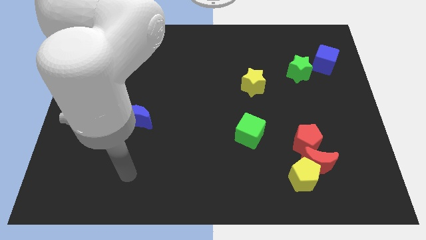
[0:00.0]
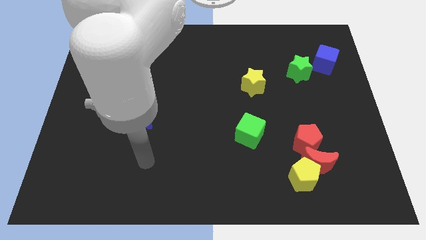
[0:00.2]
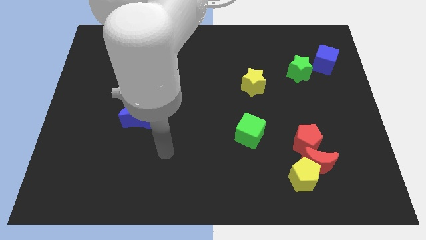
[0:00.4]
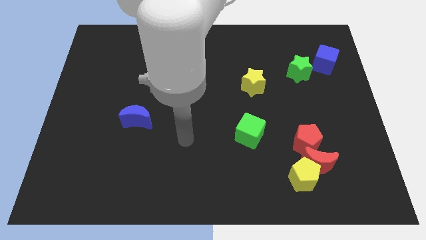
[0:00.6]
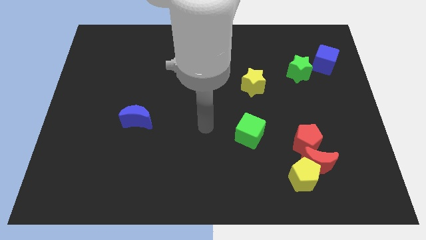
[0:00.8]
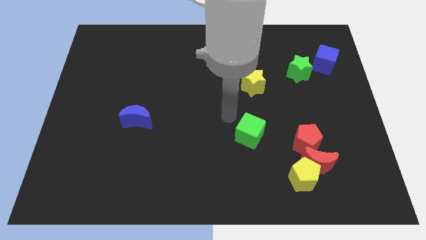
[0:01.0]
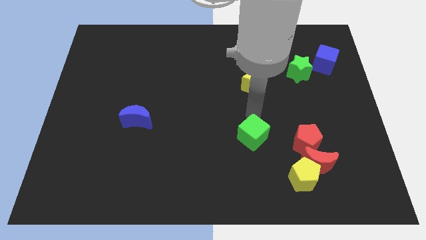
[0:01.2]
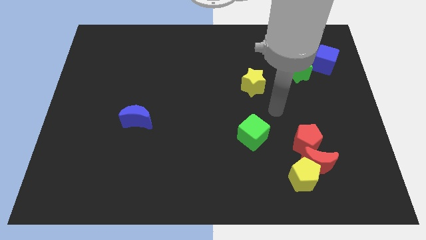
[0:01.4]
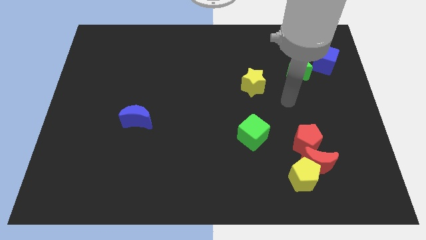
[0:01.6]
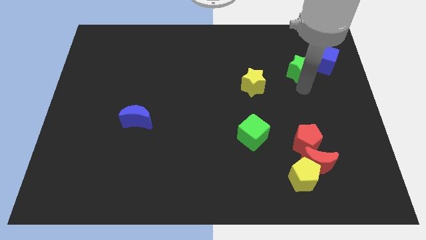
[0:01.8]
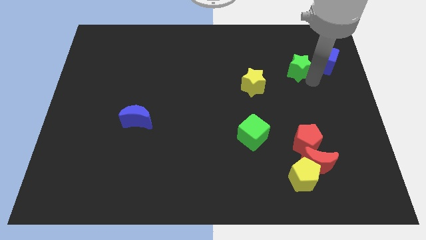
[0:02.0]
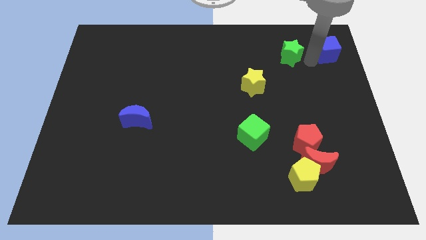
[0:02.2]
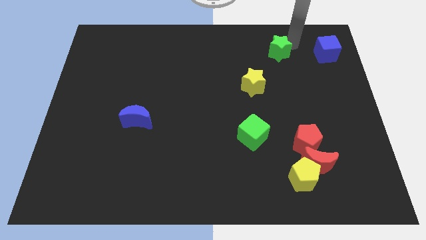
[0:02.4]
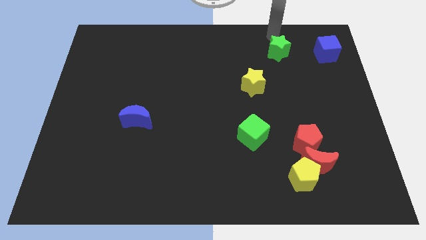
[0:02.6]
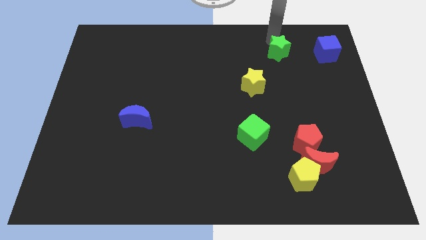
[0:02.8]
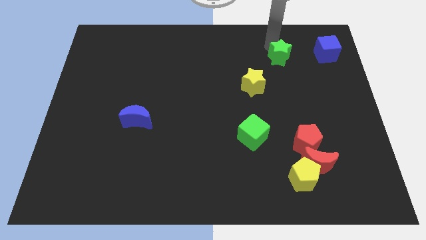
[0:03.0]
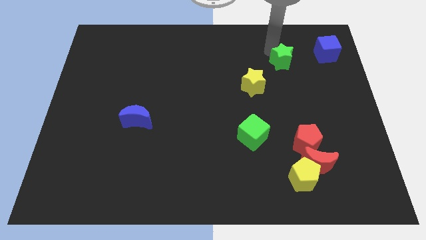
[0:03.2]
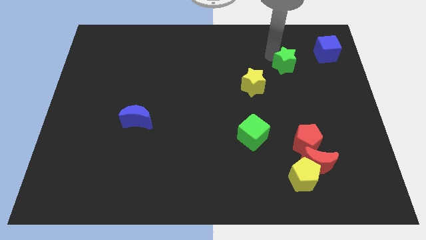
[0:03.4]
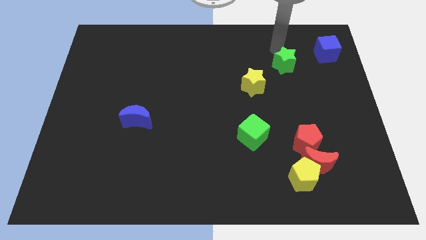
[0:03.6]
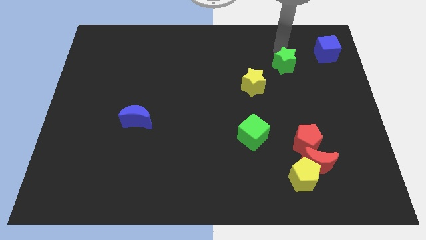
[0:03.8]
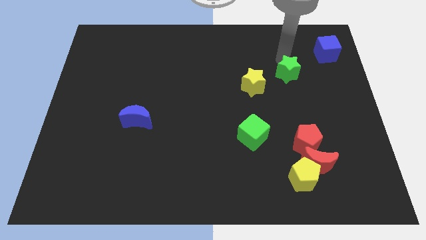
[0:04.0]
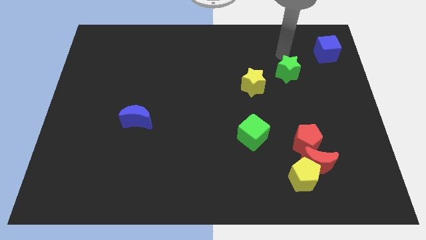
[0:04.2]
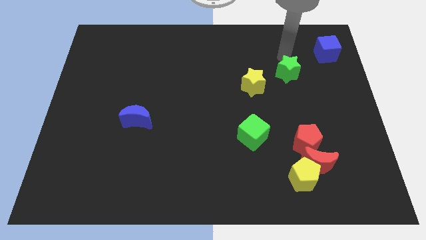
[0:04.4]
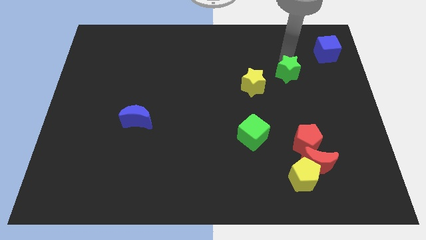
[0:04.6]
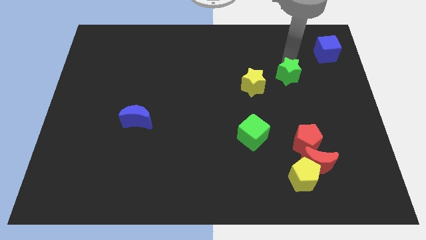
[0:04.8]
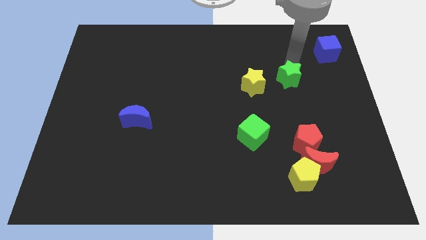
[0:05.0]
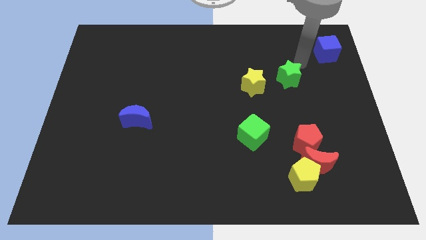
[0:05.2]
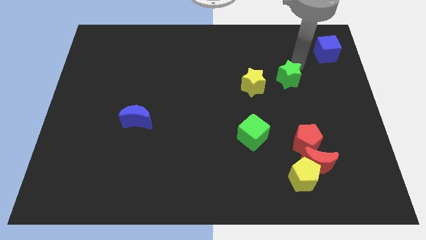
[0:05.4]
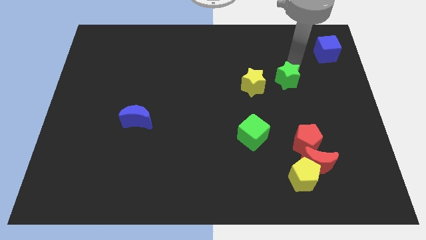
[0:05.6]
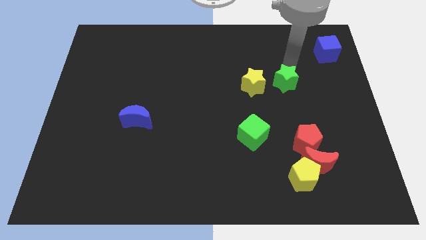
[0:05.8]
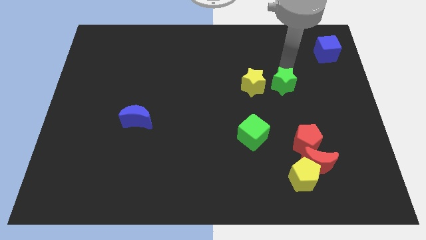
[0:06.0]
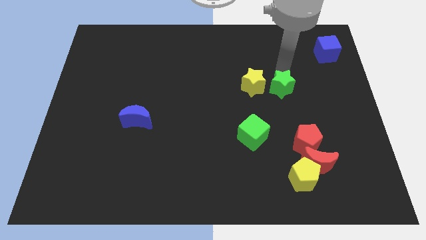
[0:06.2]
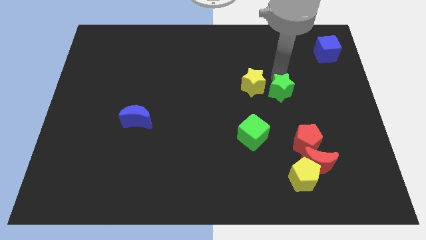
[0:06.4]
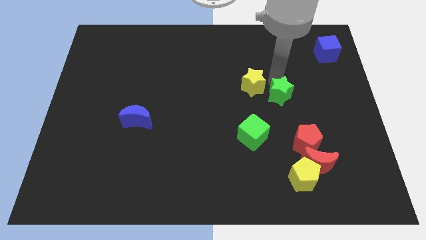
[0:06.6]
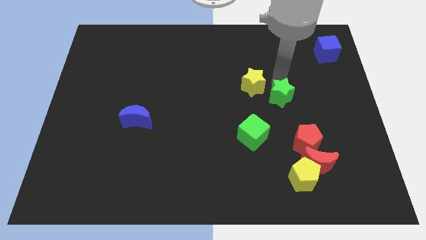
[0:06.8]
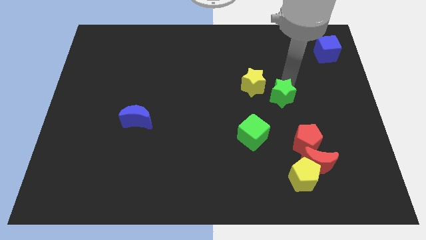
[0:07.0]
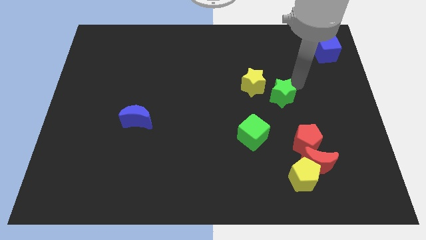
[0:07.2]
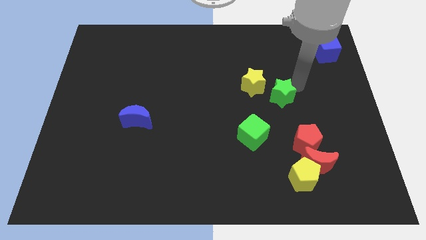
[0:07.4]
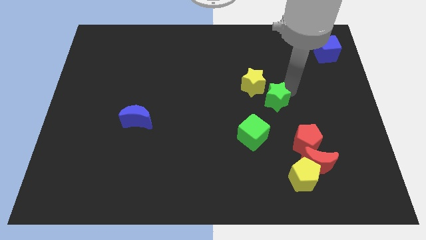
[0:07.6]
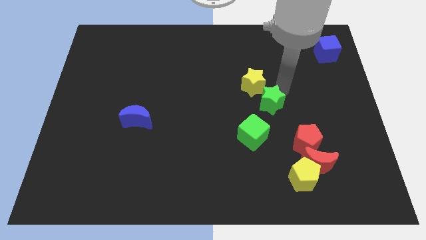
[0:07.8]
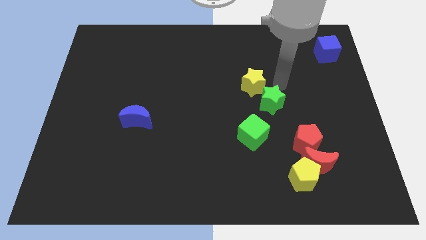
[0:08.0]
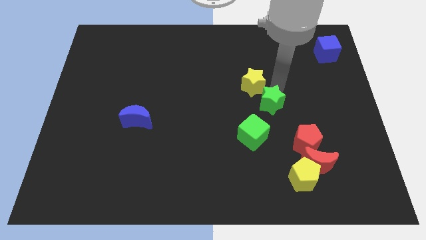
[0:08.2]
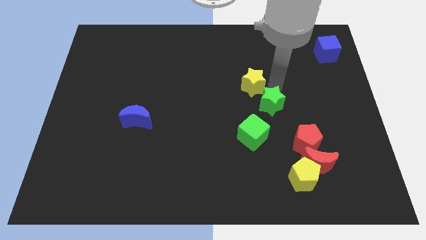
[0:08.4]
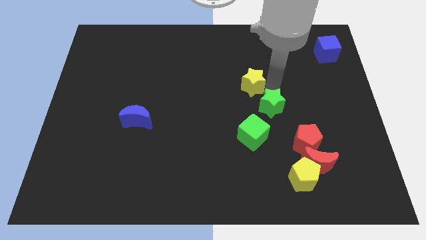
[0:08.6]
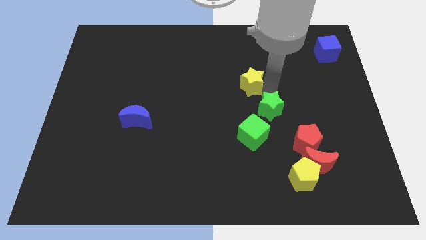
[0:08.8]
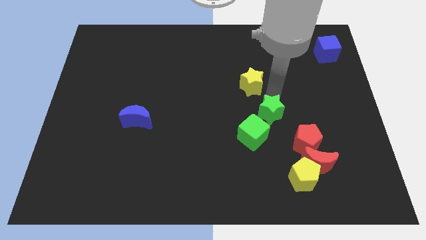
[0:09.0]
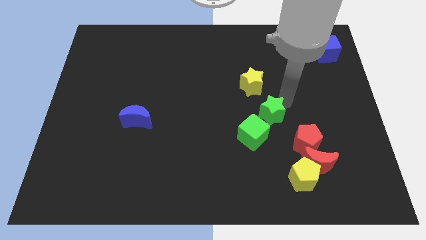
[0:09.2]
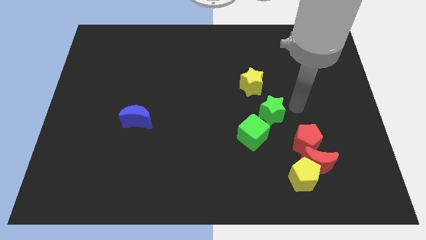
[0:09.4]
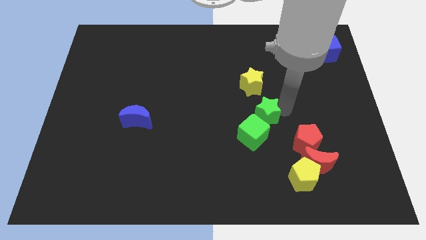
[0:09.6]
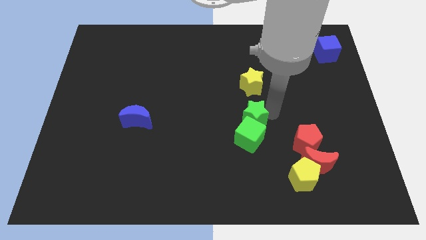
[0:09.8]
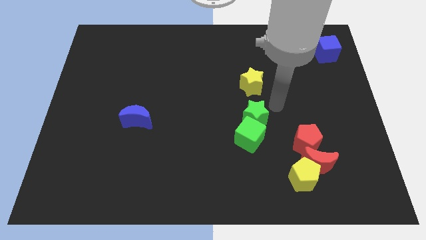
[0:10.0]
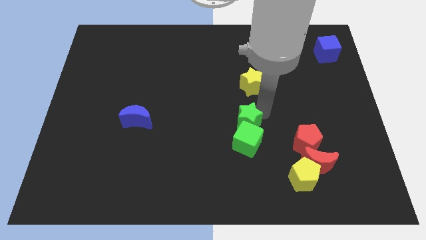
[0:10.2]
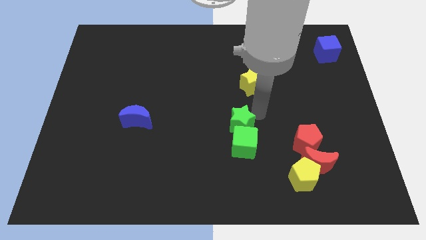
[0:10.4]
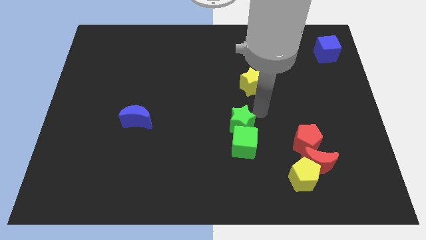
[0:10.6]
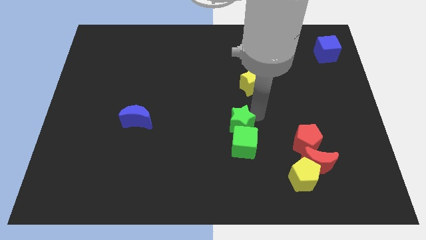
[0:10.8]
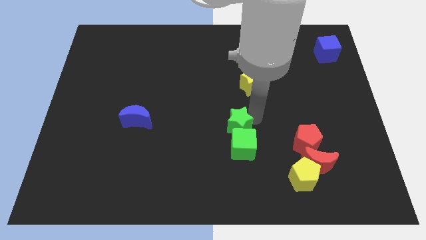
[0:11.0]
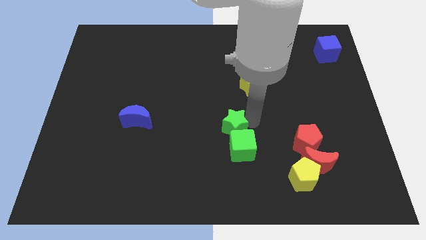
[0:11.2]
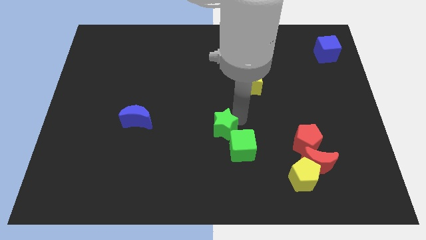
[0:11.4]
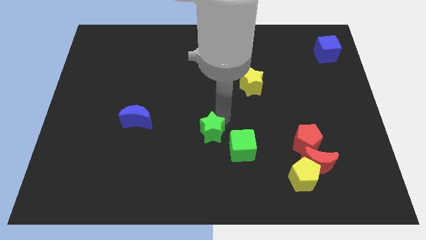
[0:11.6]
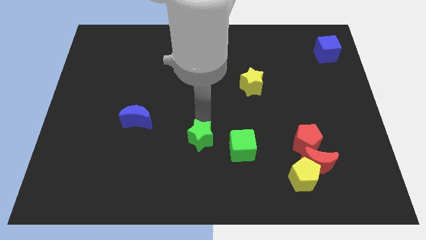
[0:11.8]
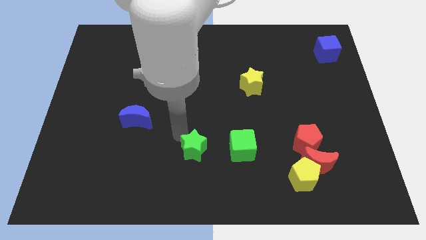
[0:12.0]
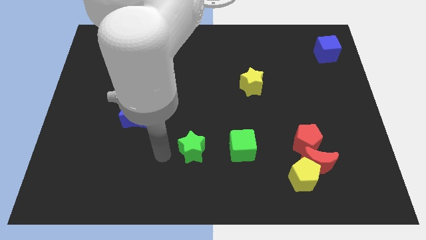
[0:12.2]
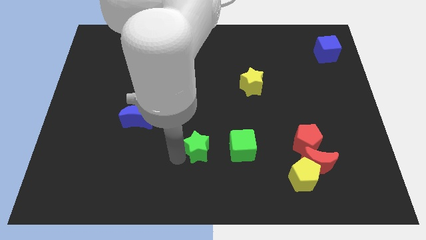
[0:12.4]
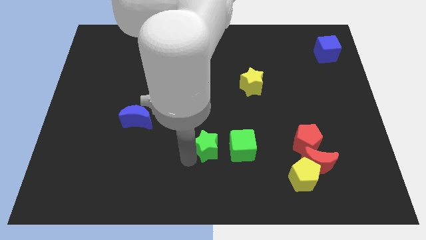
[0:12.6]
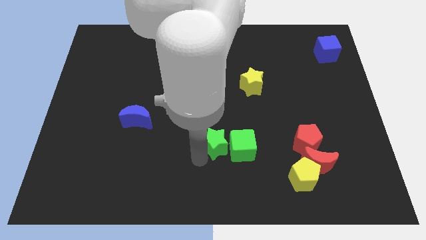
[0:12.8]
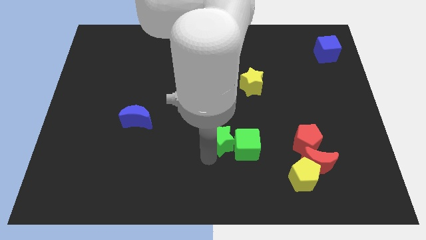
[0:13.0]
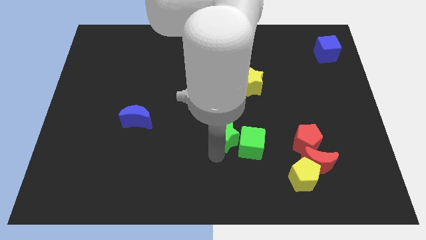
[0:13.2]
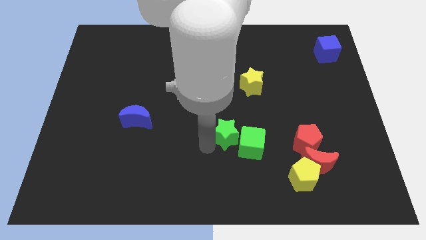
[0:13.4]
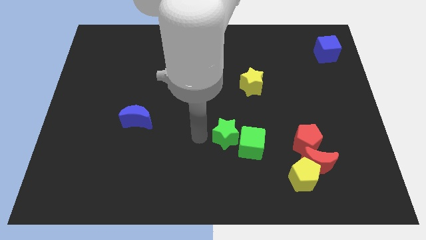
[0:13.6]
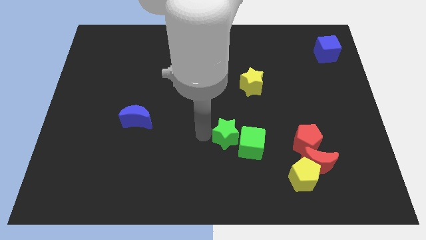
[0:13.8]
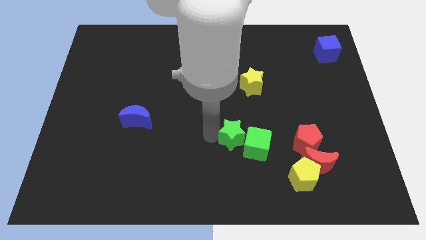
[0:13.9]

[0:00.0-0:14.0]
push the green star just left of the red pentagon

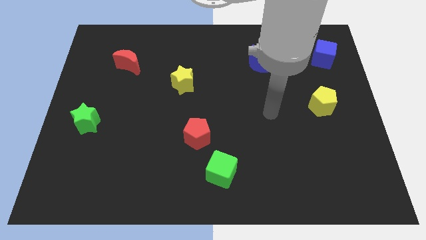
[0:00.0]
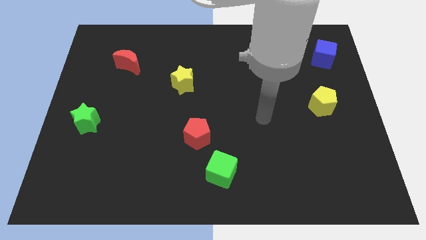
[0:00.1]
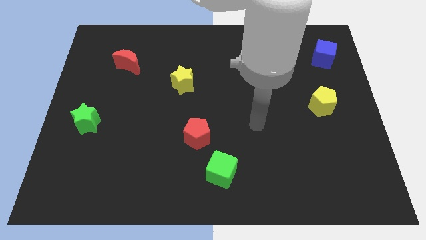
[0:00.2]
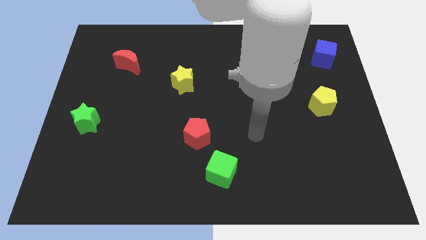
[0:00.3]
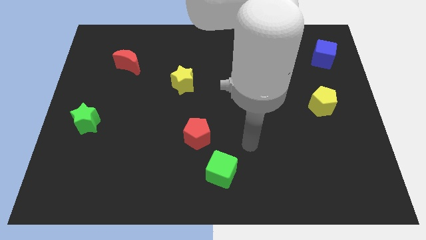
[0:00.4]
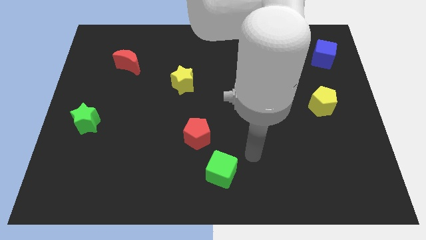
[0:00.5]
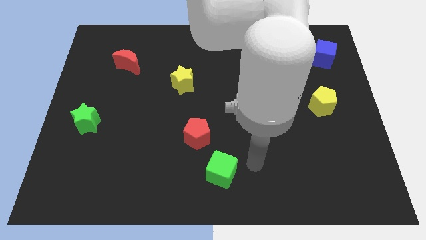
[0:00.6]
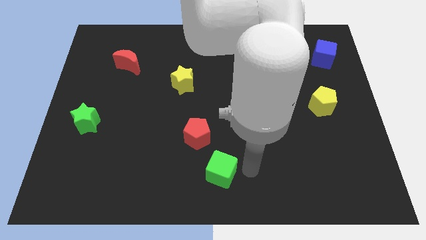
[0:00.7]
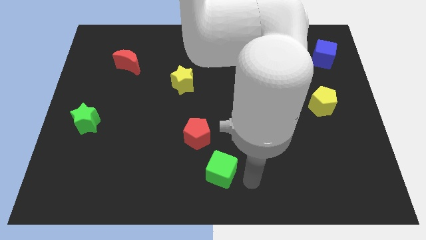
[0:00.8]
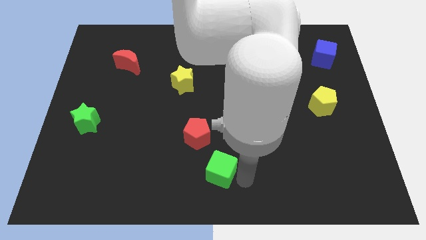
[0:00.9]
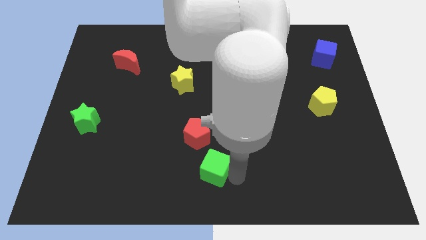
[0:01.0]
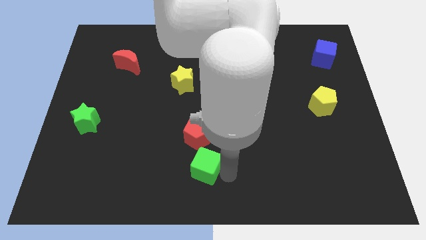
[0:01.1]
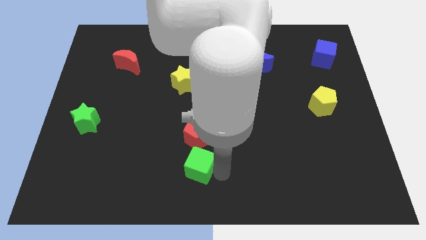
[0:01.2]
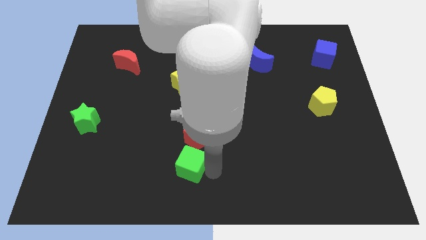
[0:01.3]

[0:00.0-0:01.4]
slide the green cube to the bottom left of the red pentagon
